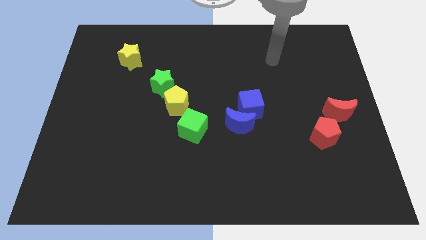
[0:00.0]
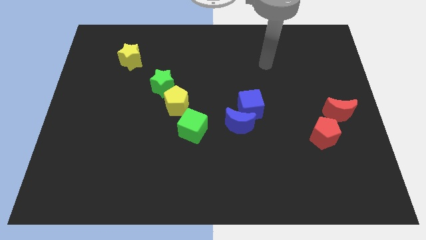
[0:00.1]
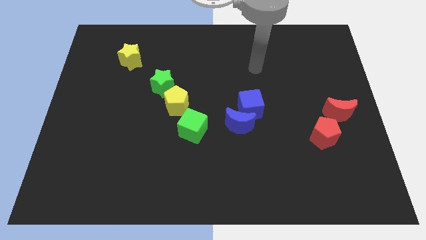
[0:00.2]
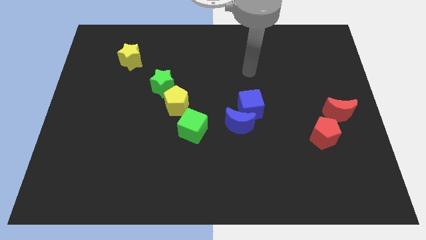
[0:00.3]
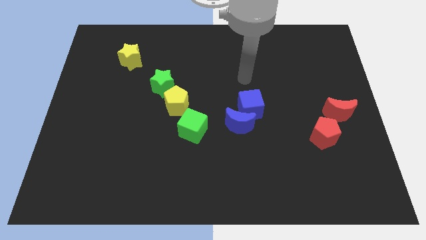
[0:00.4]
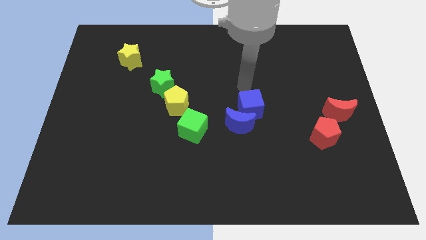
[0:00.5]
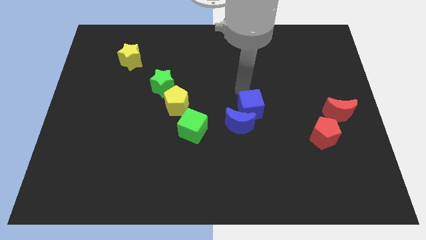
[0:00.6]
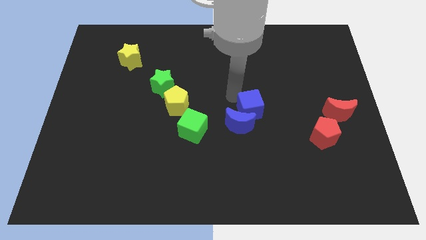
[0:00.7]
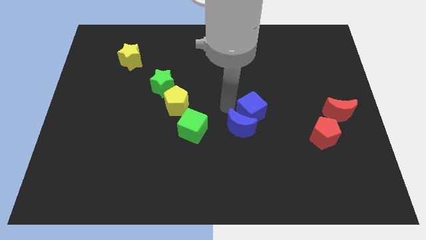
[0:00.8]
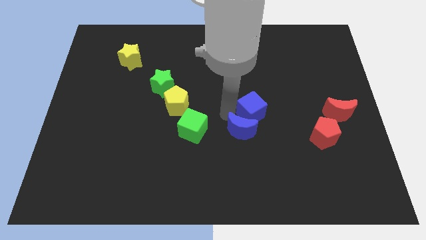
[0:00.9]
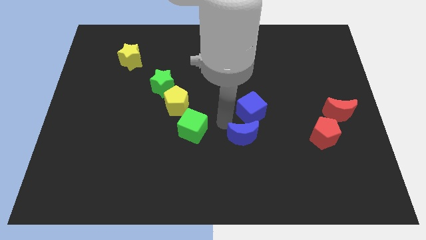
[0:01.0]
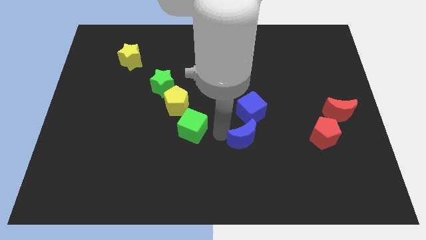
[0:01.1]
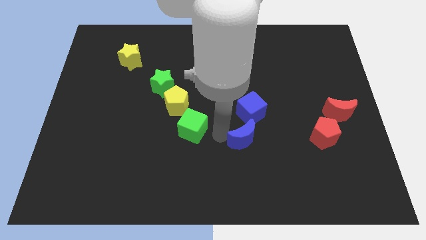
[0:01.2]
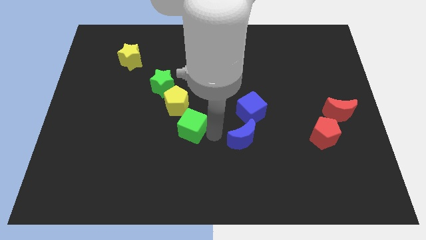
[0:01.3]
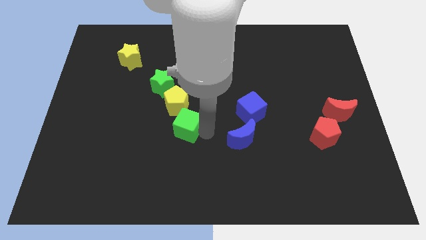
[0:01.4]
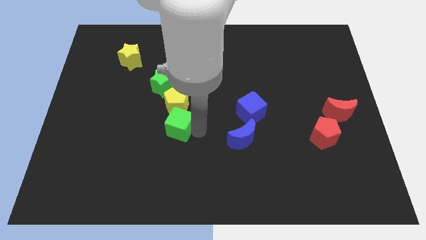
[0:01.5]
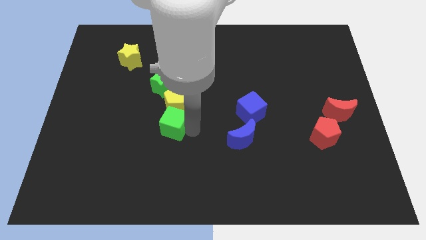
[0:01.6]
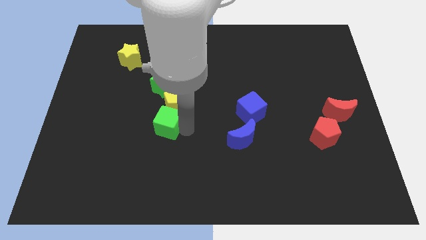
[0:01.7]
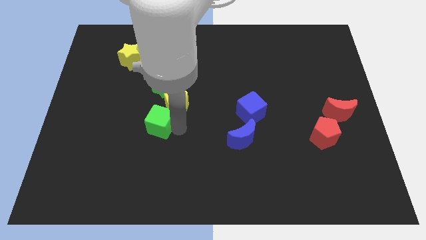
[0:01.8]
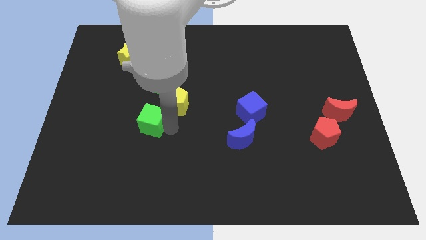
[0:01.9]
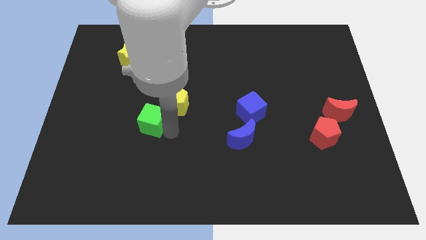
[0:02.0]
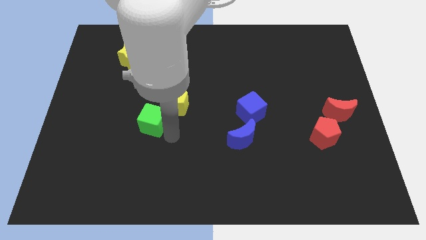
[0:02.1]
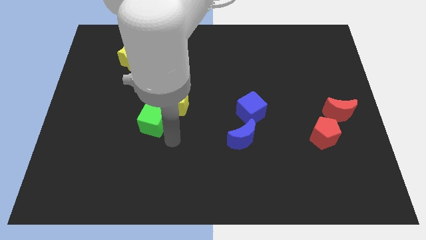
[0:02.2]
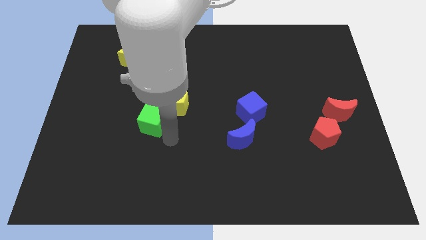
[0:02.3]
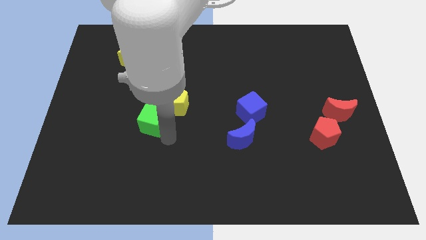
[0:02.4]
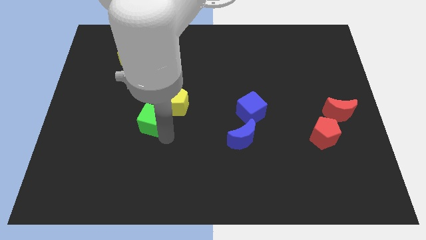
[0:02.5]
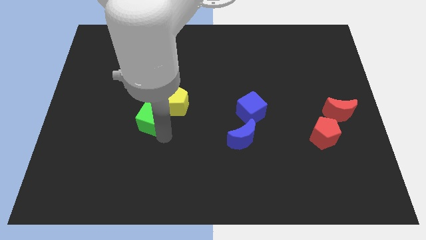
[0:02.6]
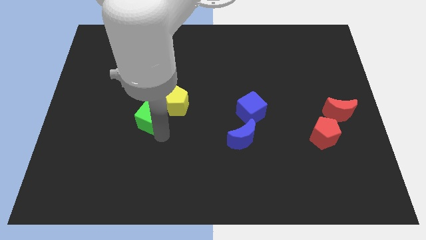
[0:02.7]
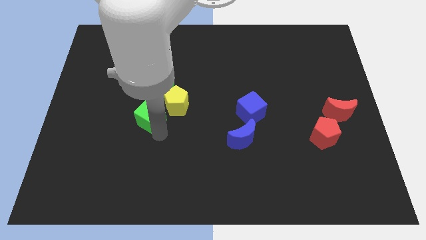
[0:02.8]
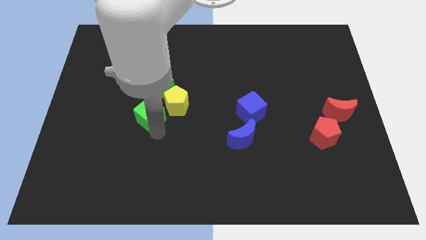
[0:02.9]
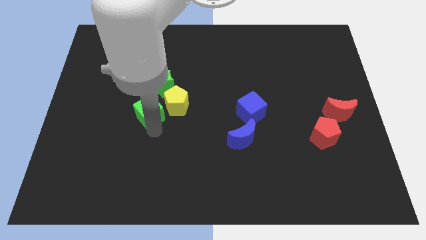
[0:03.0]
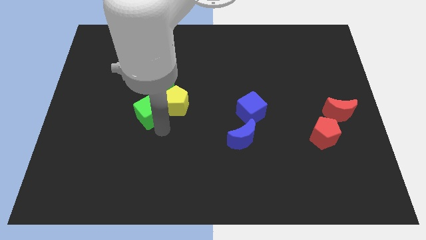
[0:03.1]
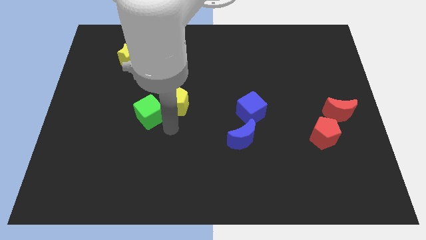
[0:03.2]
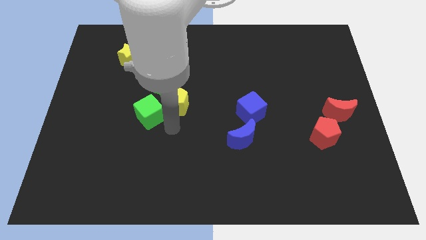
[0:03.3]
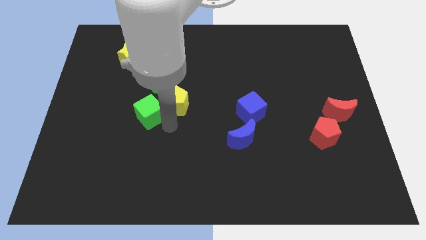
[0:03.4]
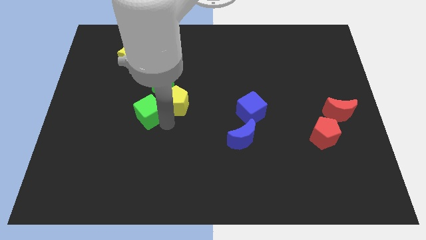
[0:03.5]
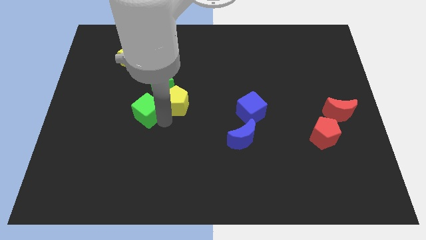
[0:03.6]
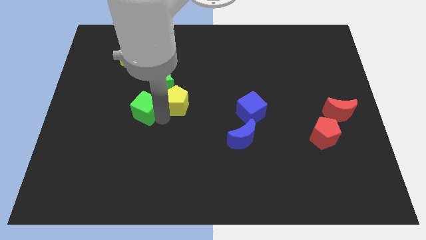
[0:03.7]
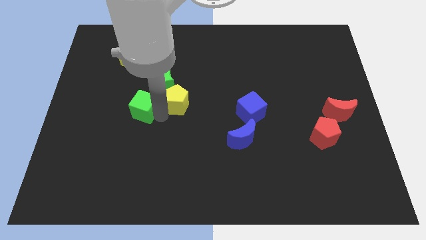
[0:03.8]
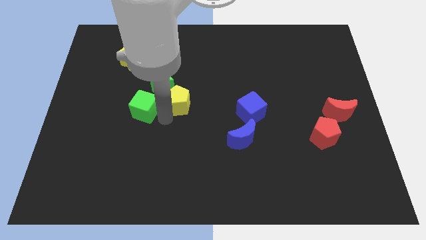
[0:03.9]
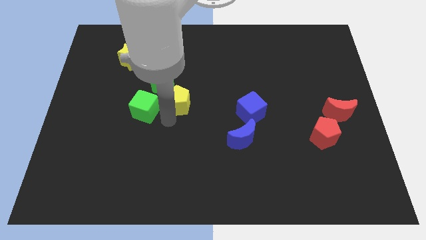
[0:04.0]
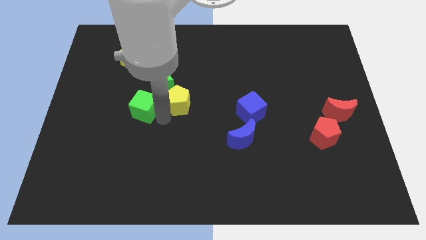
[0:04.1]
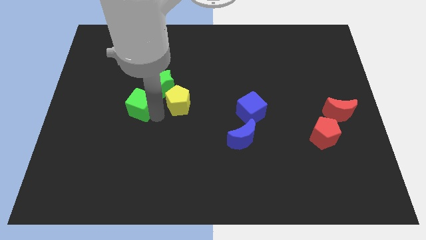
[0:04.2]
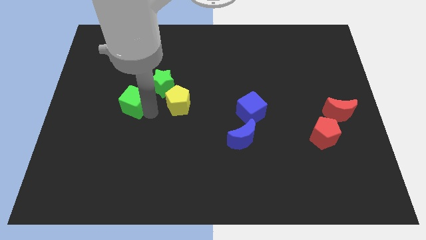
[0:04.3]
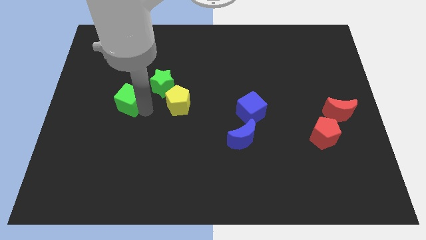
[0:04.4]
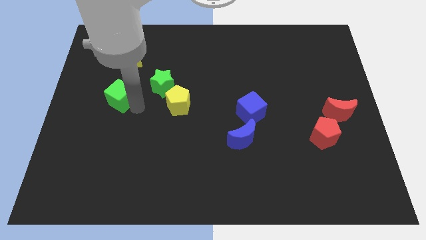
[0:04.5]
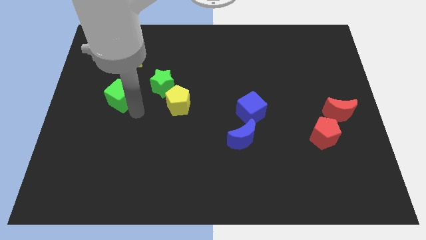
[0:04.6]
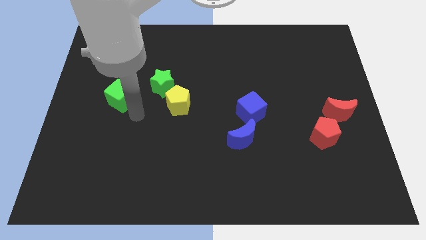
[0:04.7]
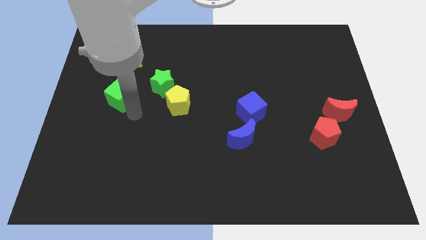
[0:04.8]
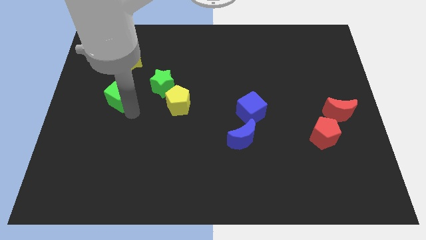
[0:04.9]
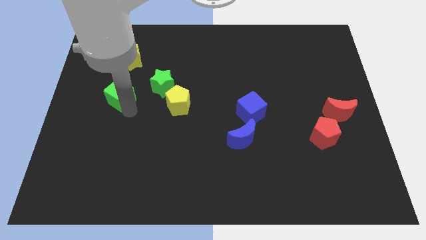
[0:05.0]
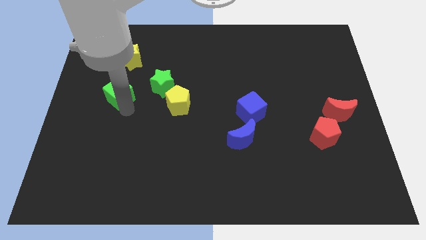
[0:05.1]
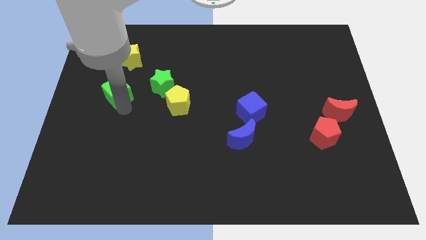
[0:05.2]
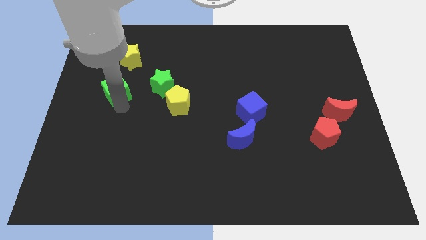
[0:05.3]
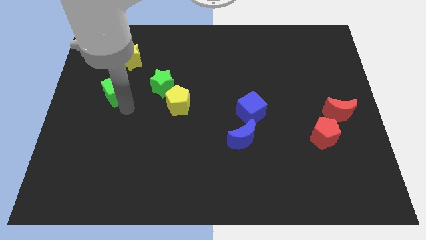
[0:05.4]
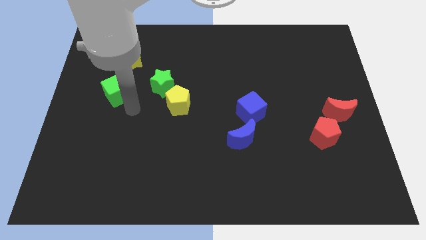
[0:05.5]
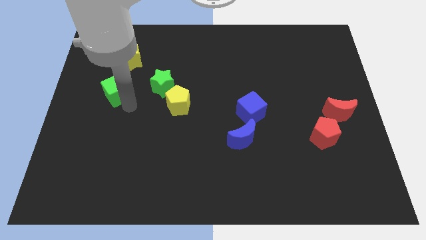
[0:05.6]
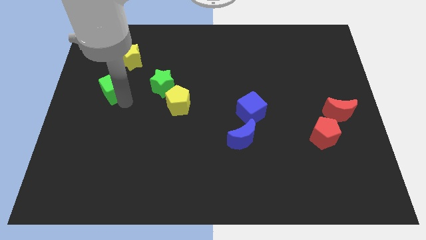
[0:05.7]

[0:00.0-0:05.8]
slide the green cube upwards and left

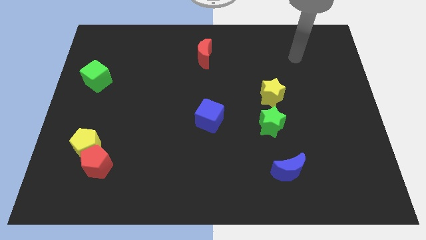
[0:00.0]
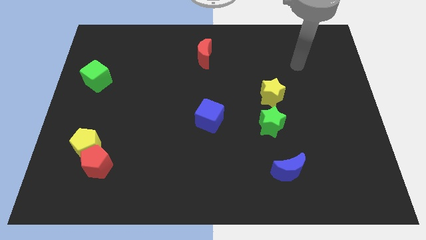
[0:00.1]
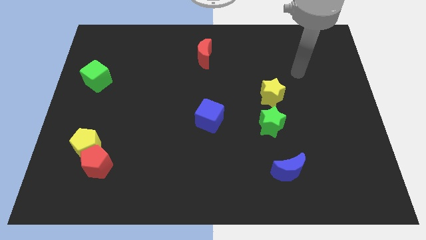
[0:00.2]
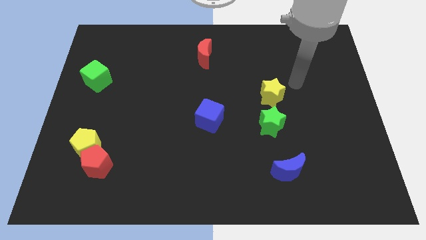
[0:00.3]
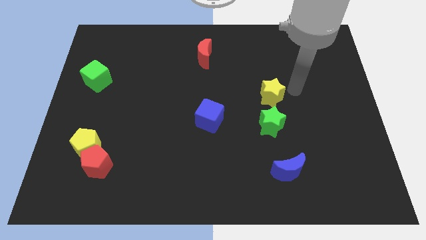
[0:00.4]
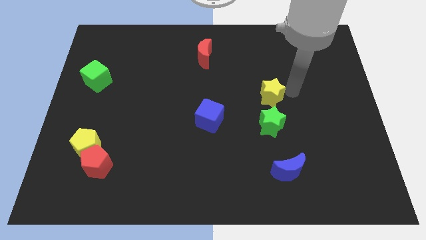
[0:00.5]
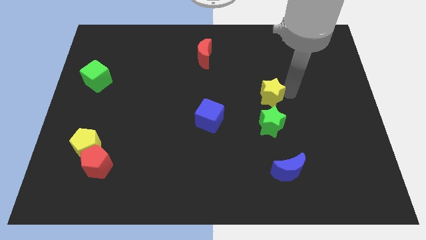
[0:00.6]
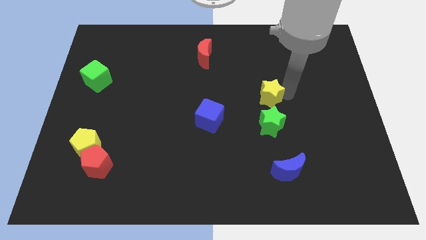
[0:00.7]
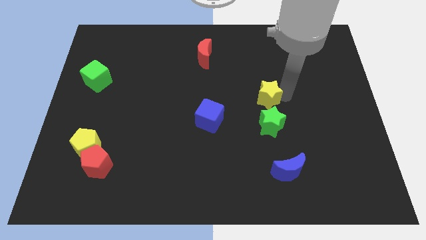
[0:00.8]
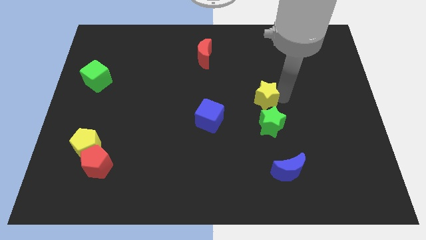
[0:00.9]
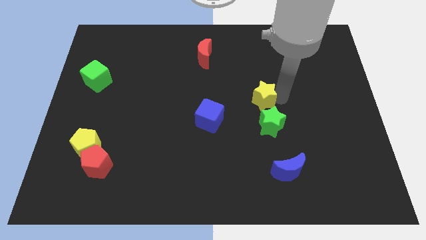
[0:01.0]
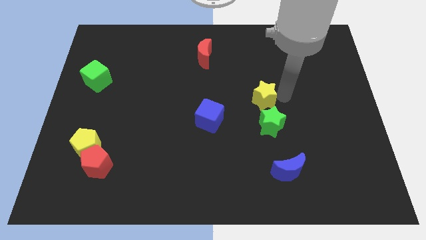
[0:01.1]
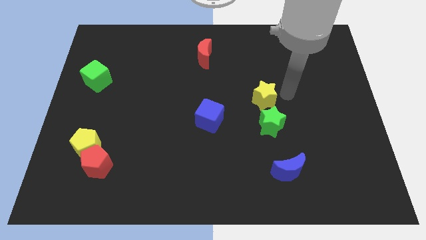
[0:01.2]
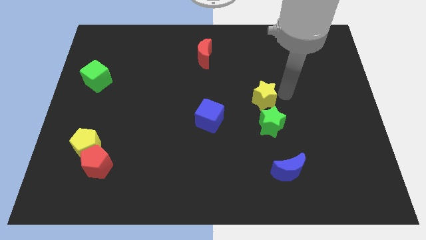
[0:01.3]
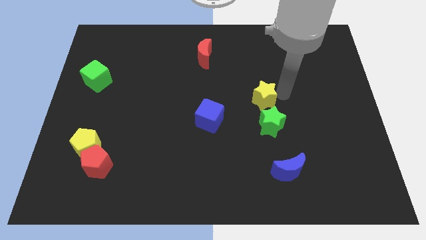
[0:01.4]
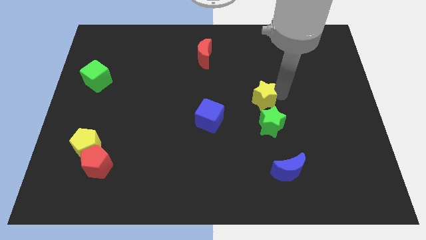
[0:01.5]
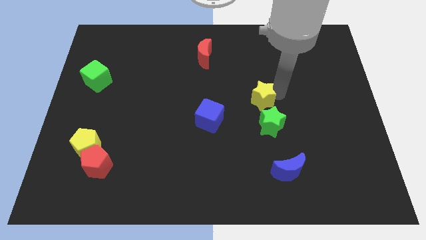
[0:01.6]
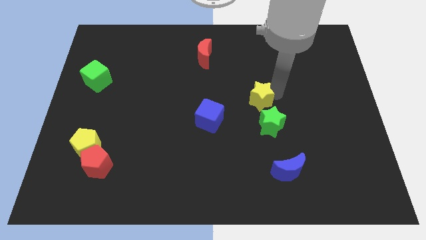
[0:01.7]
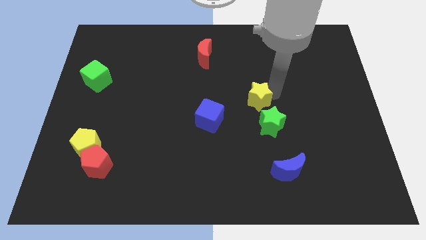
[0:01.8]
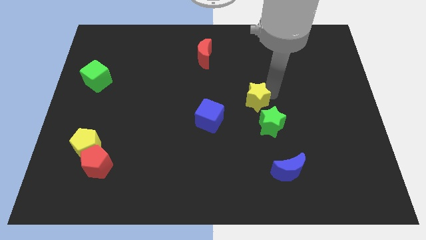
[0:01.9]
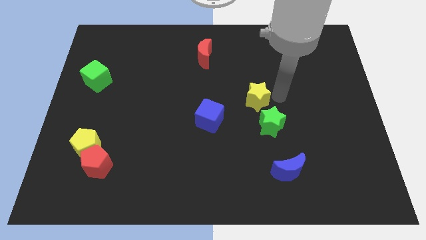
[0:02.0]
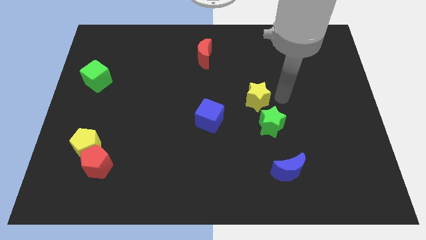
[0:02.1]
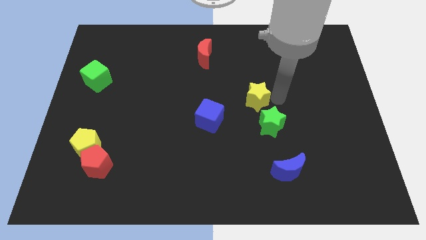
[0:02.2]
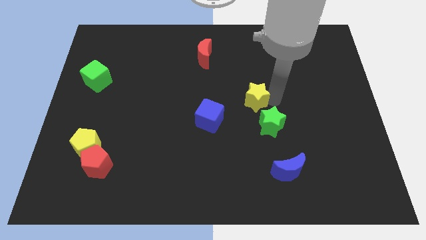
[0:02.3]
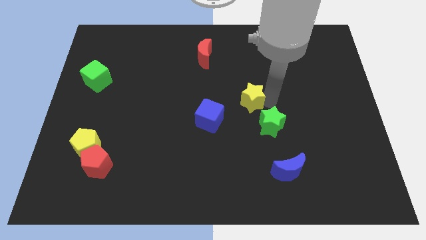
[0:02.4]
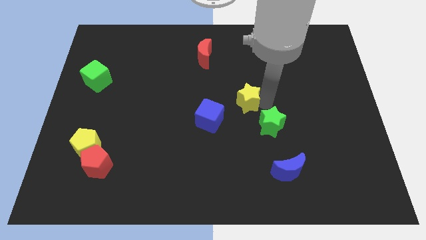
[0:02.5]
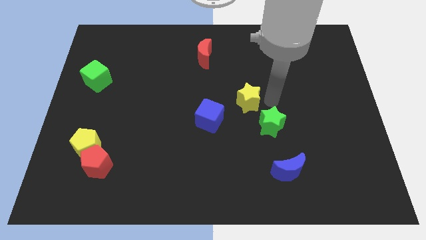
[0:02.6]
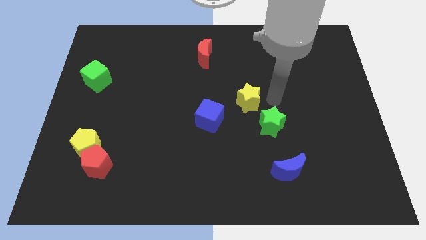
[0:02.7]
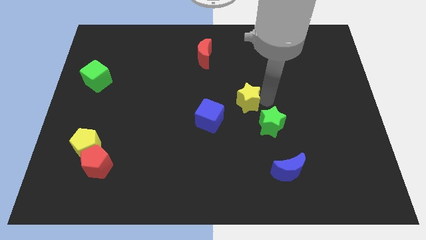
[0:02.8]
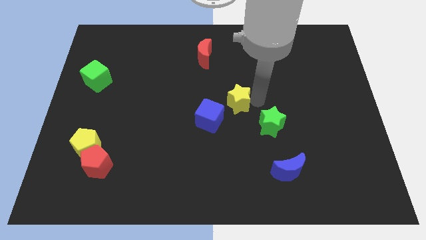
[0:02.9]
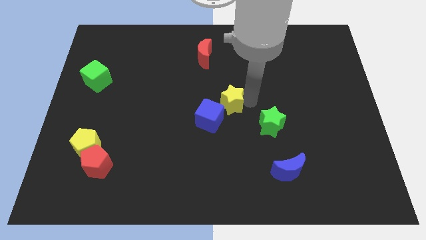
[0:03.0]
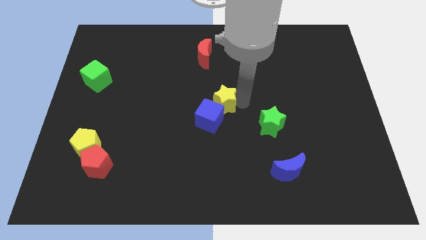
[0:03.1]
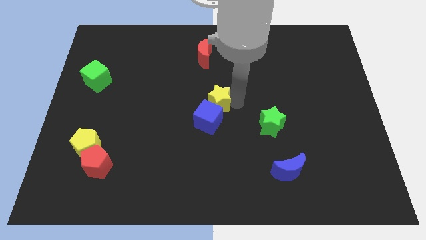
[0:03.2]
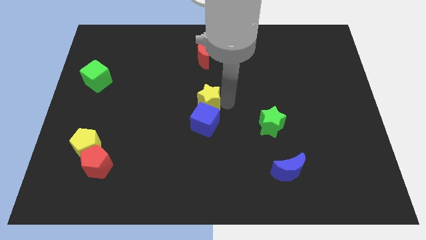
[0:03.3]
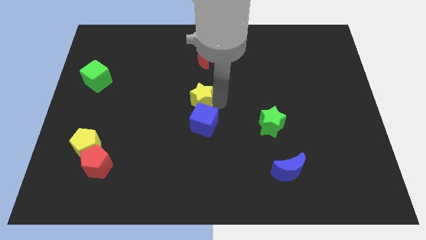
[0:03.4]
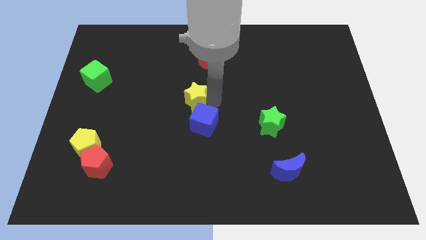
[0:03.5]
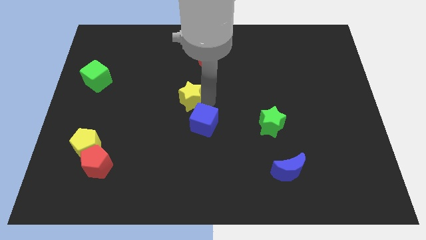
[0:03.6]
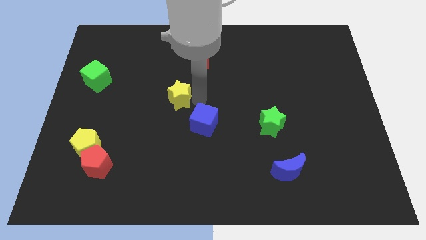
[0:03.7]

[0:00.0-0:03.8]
slide the yellow star to the left
